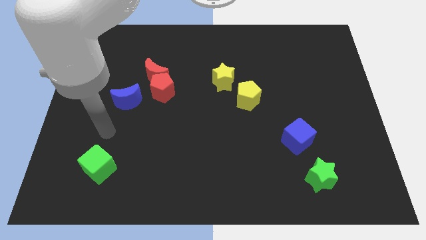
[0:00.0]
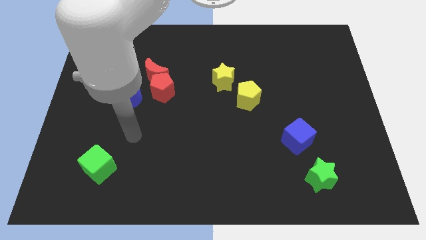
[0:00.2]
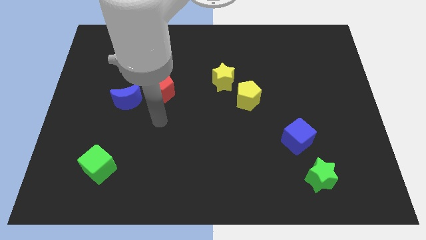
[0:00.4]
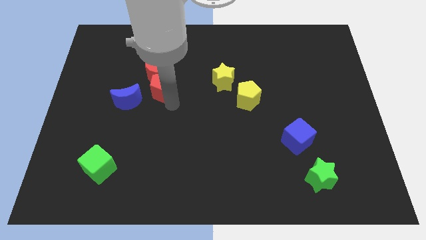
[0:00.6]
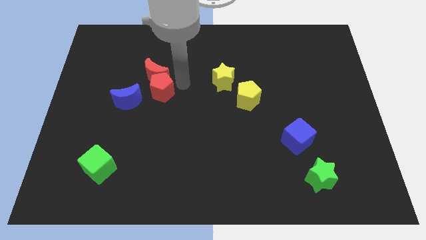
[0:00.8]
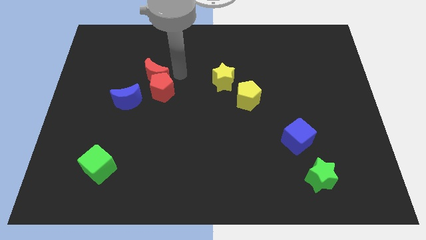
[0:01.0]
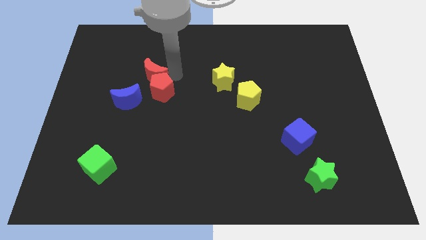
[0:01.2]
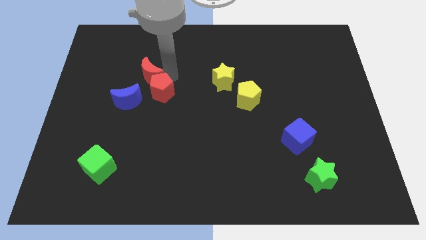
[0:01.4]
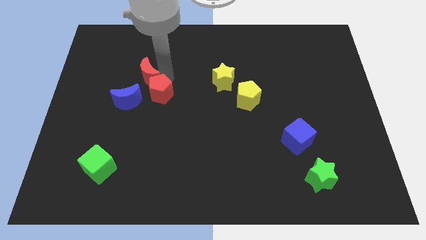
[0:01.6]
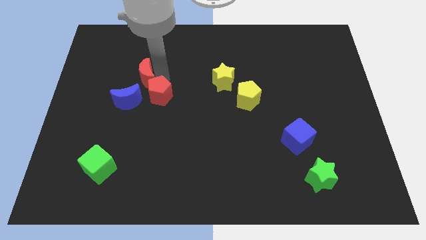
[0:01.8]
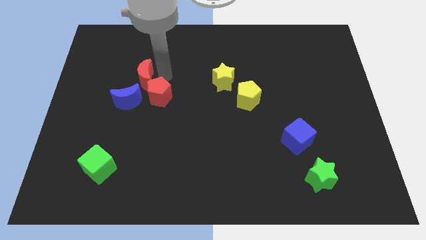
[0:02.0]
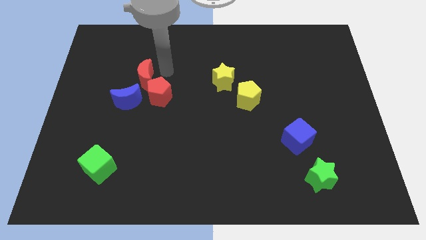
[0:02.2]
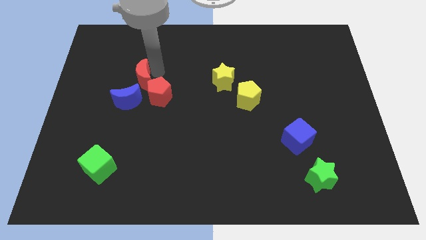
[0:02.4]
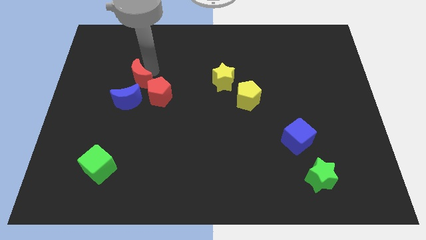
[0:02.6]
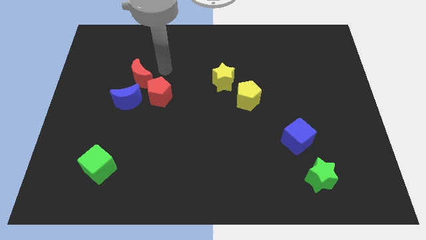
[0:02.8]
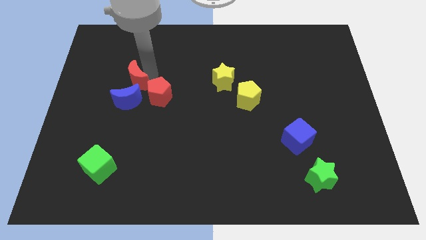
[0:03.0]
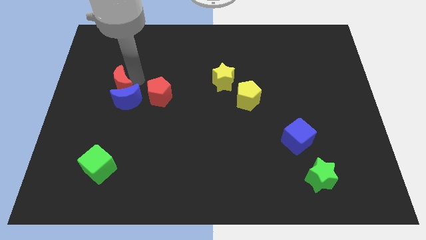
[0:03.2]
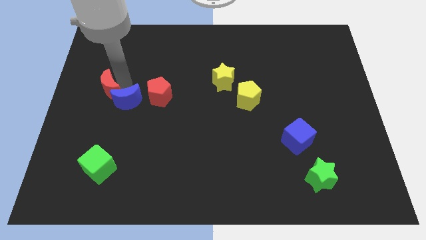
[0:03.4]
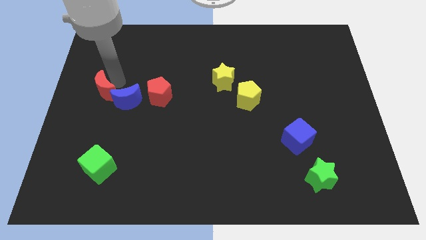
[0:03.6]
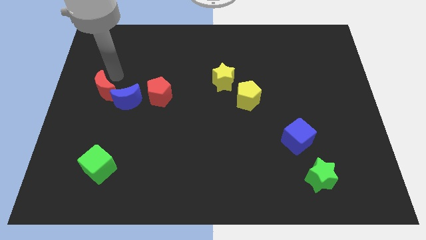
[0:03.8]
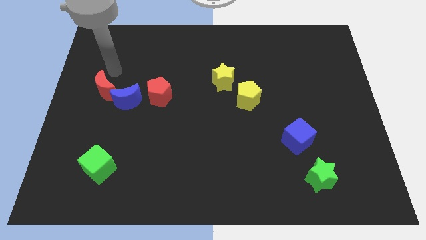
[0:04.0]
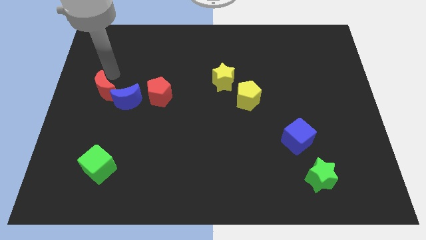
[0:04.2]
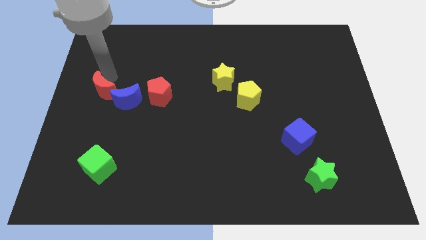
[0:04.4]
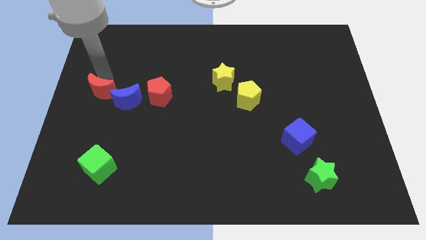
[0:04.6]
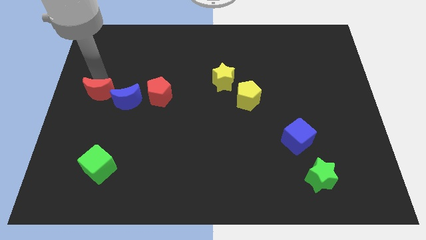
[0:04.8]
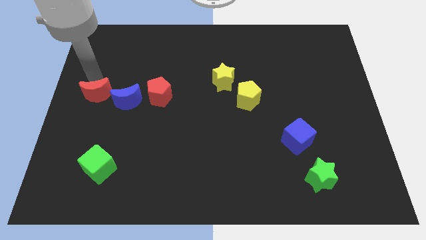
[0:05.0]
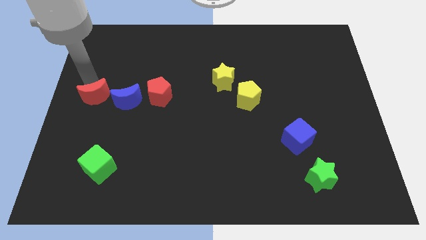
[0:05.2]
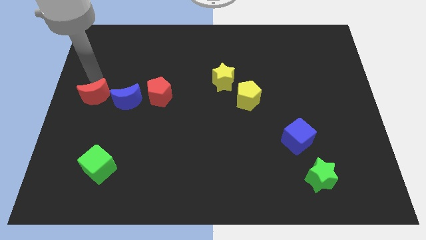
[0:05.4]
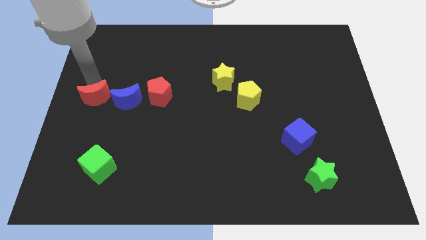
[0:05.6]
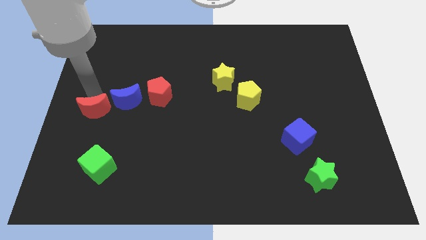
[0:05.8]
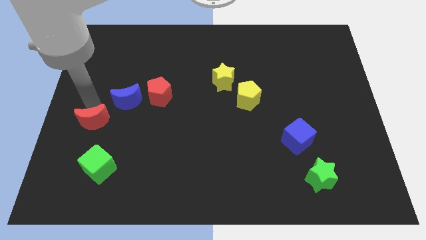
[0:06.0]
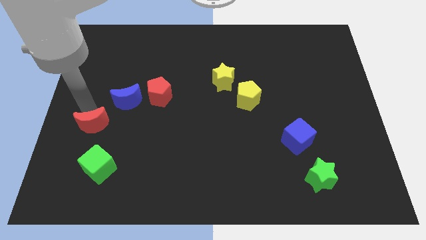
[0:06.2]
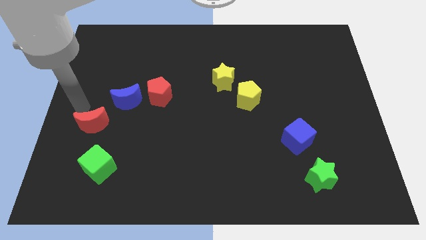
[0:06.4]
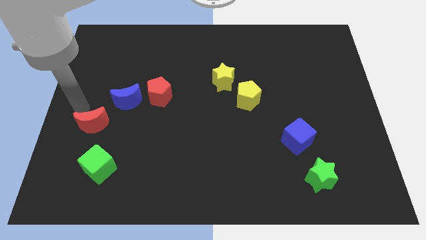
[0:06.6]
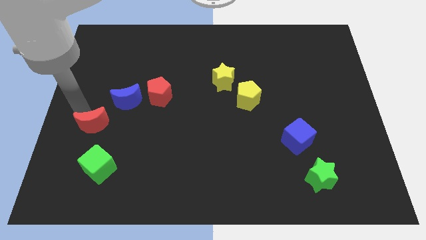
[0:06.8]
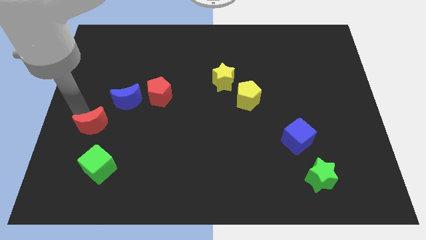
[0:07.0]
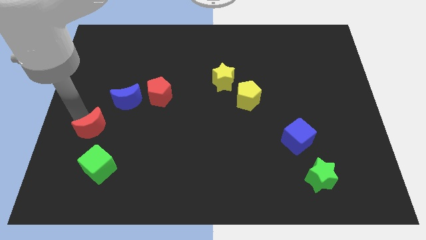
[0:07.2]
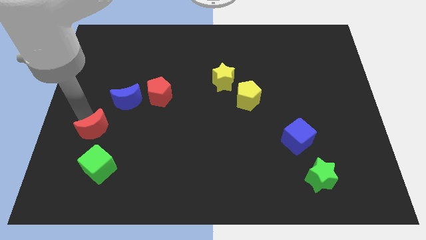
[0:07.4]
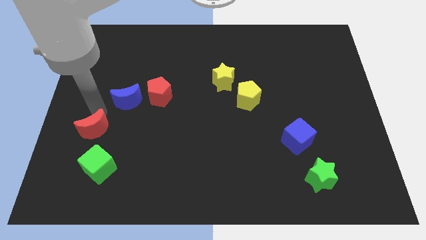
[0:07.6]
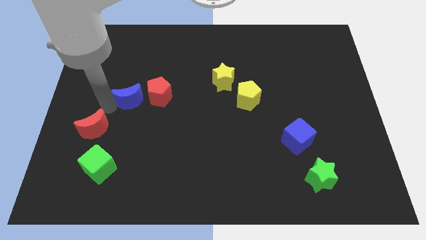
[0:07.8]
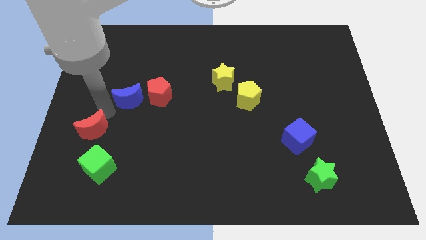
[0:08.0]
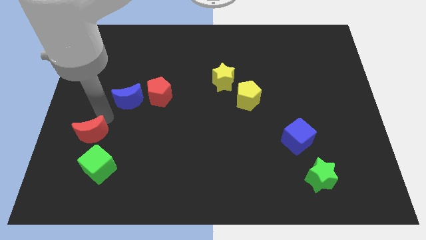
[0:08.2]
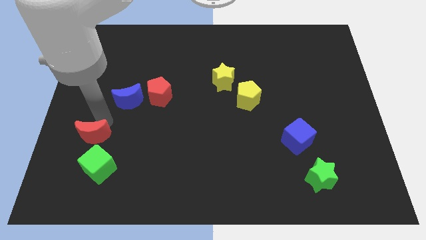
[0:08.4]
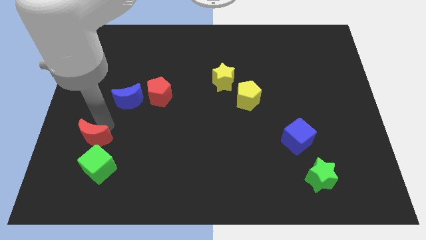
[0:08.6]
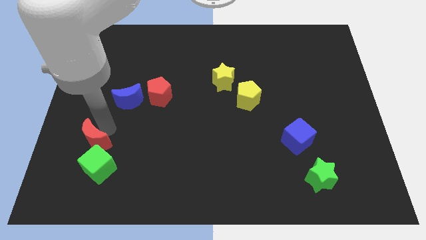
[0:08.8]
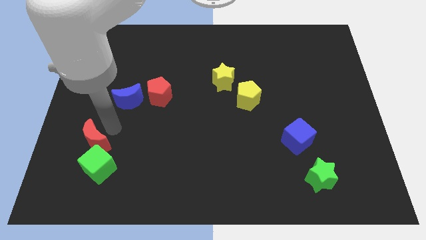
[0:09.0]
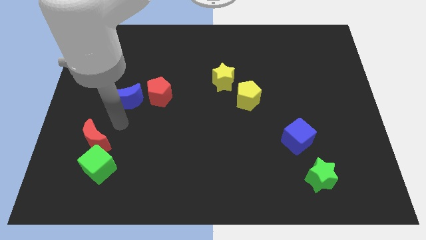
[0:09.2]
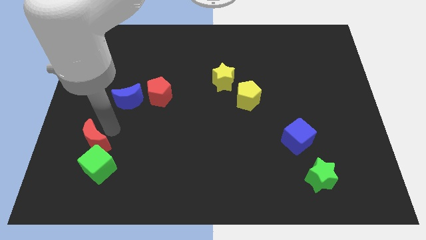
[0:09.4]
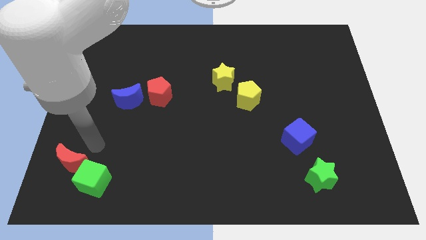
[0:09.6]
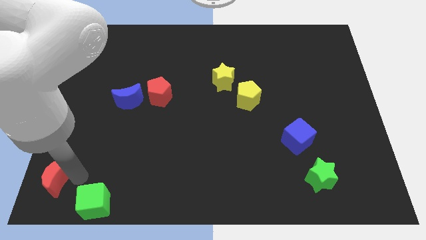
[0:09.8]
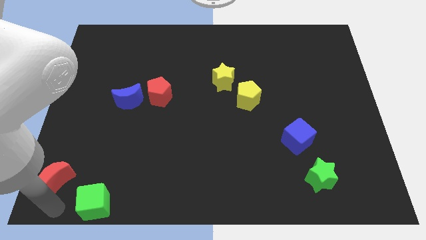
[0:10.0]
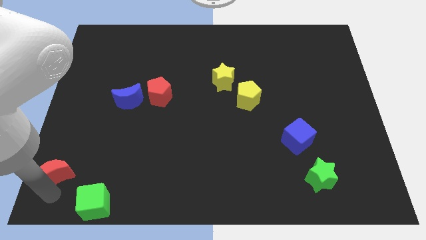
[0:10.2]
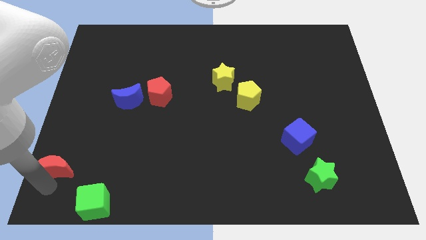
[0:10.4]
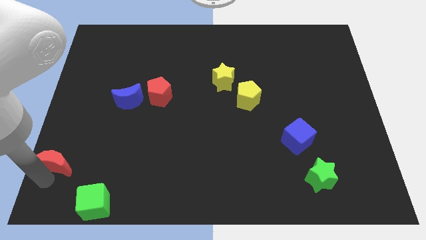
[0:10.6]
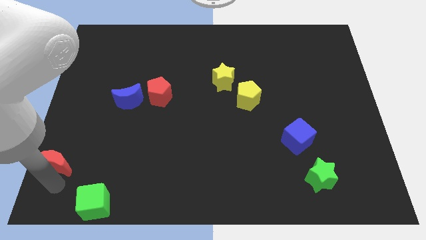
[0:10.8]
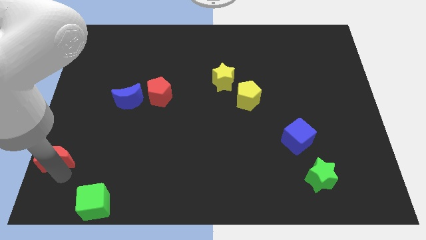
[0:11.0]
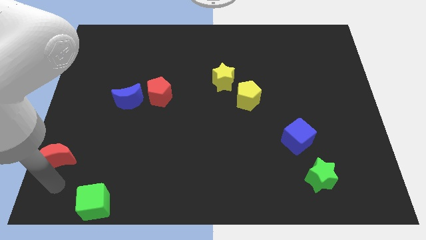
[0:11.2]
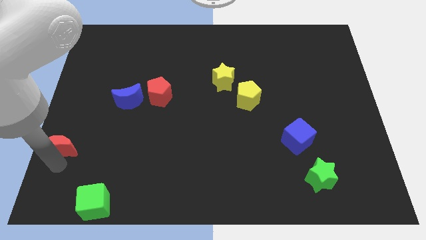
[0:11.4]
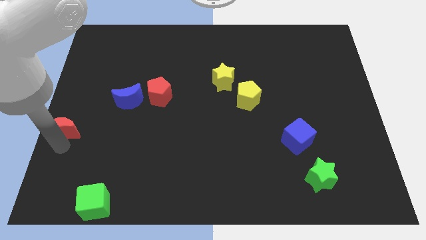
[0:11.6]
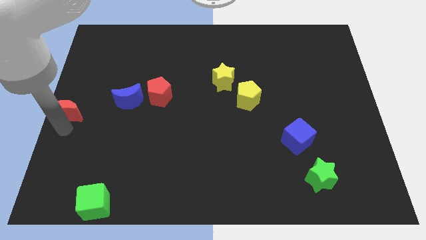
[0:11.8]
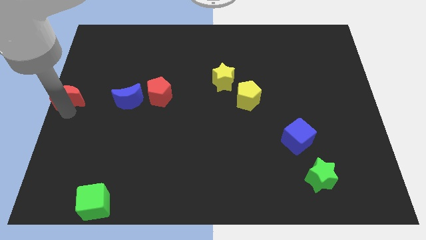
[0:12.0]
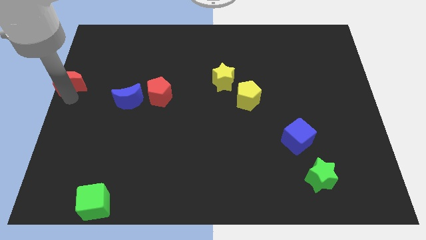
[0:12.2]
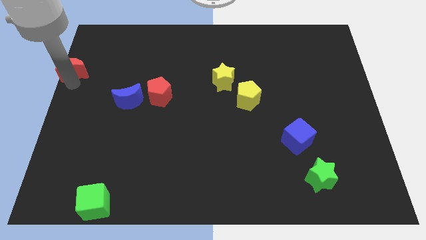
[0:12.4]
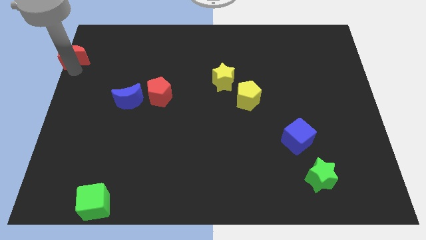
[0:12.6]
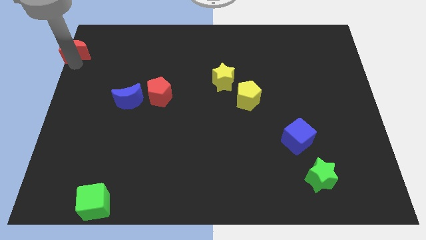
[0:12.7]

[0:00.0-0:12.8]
move the red moon to the upper left corner

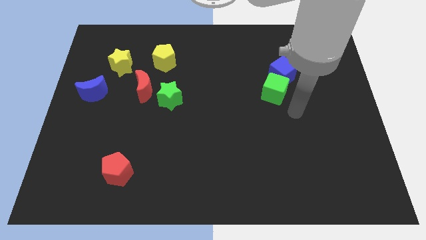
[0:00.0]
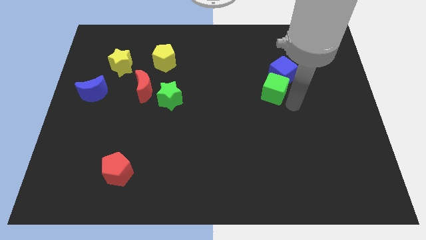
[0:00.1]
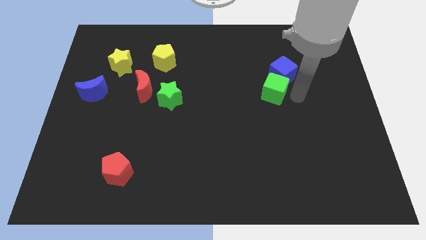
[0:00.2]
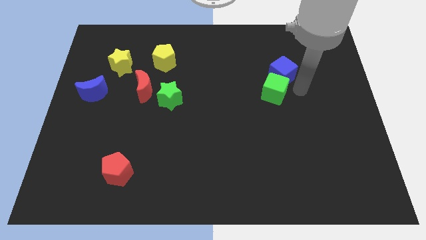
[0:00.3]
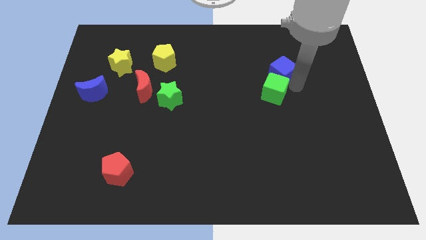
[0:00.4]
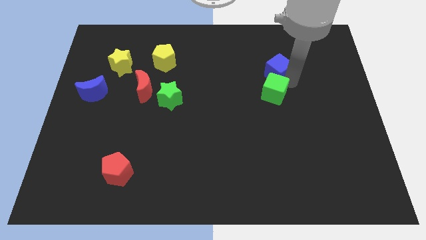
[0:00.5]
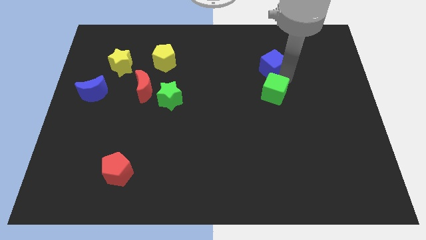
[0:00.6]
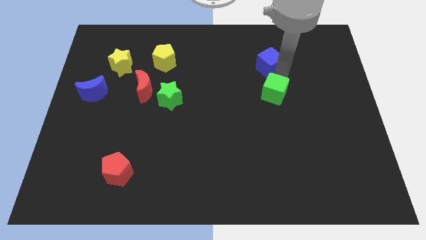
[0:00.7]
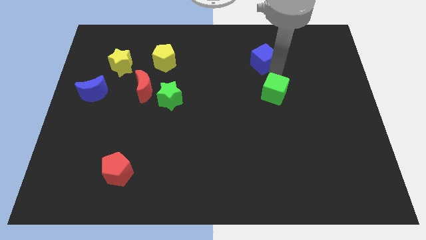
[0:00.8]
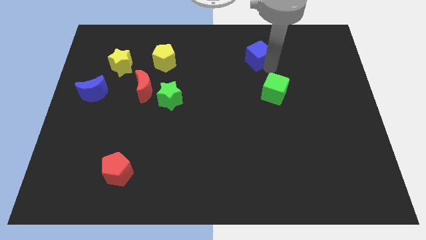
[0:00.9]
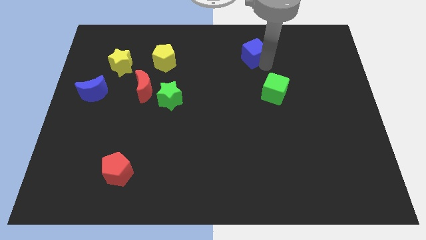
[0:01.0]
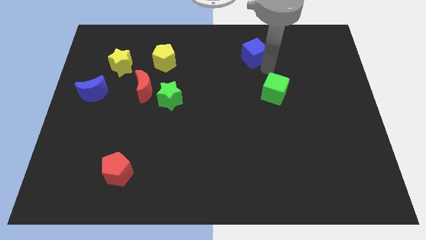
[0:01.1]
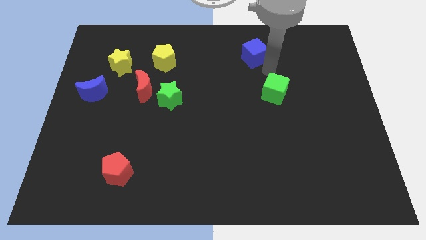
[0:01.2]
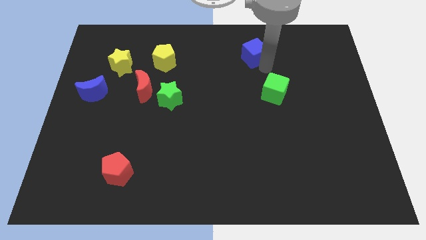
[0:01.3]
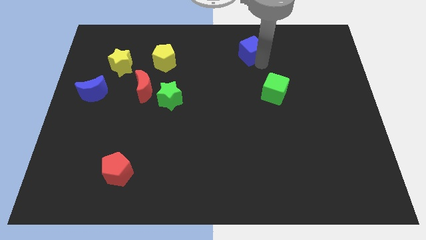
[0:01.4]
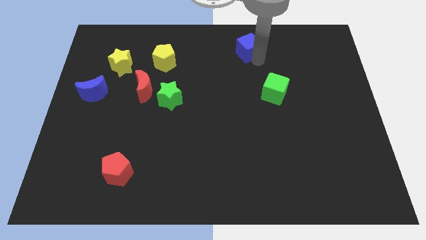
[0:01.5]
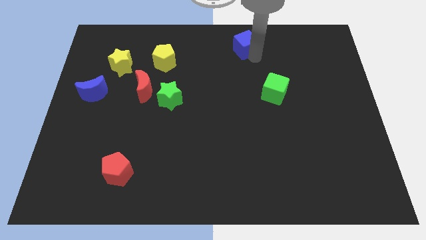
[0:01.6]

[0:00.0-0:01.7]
move the blue cube to the top side
